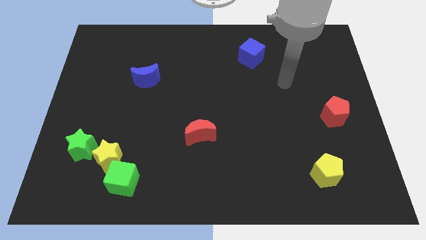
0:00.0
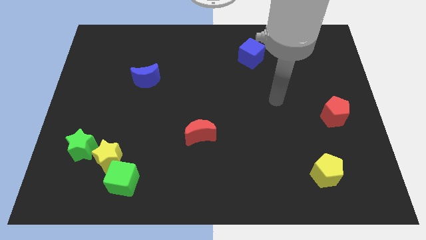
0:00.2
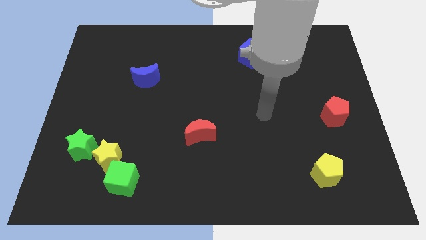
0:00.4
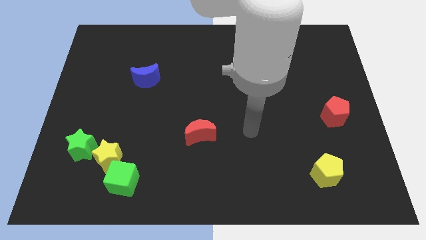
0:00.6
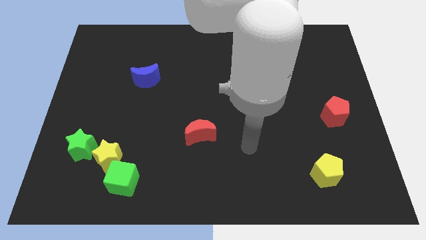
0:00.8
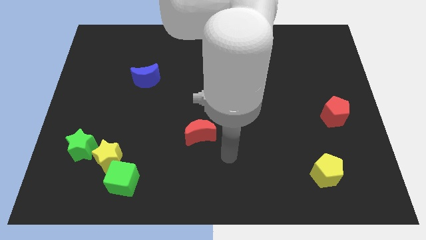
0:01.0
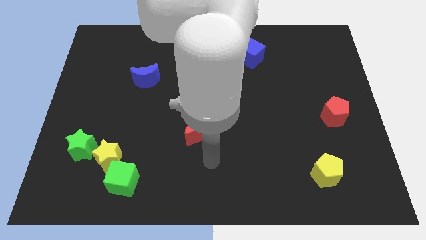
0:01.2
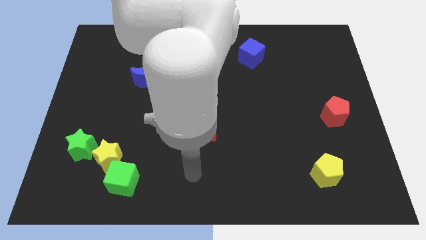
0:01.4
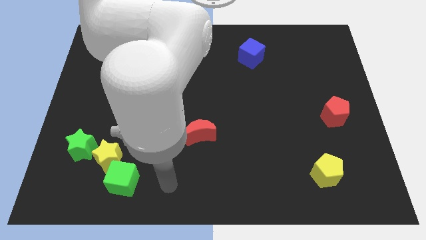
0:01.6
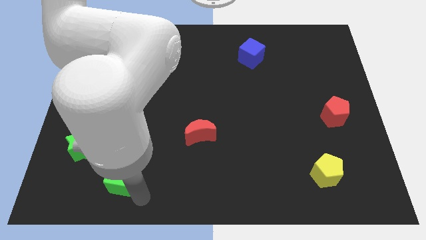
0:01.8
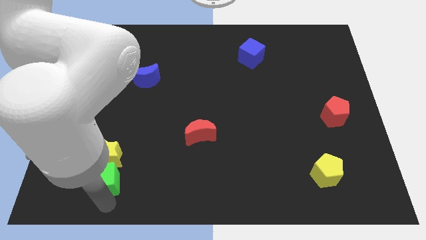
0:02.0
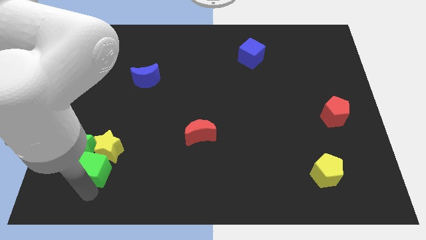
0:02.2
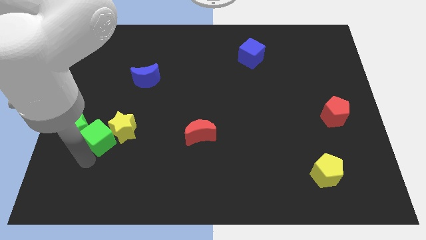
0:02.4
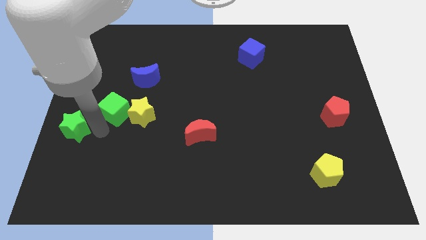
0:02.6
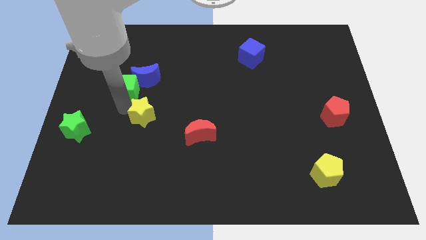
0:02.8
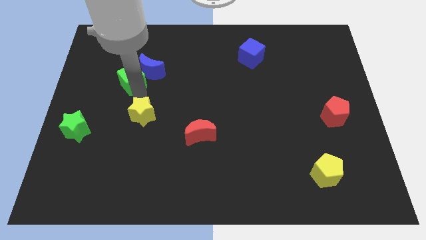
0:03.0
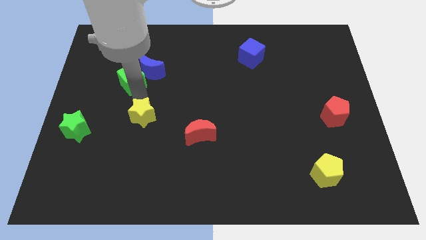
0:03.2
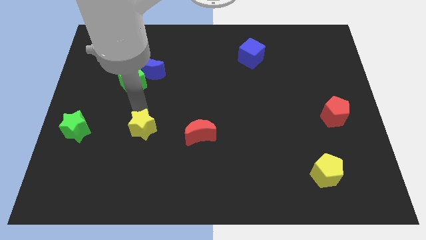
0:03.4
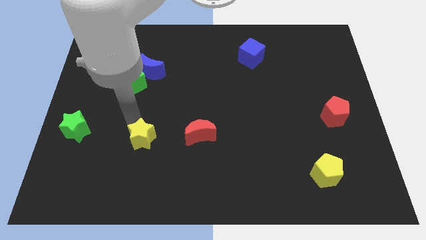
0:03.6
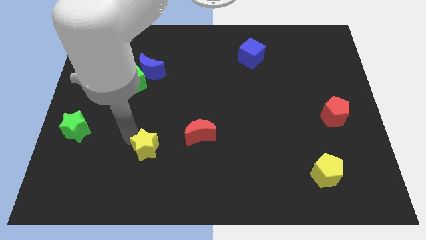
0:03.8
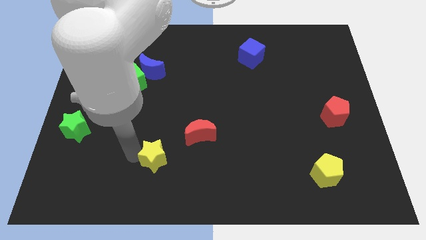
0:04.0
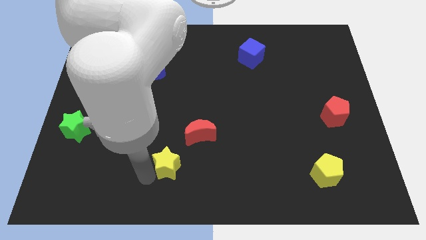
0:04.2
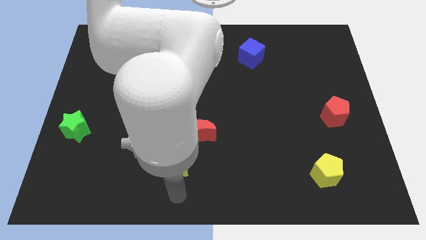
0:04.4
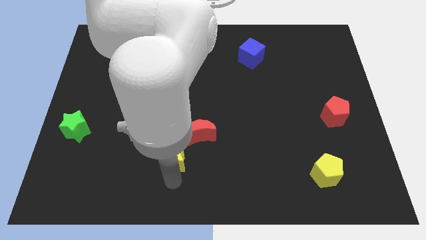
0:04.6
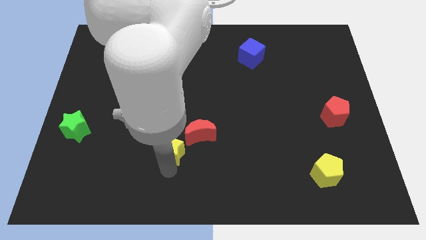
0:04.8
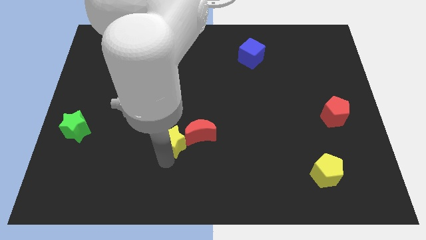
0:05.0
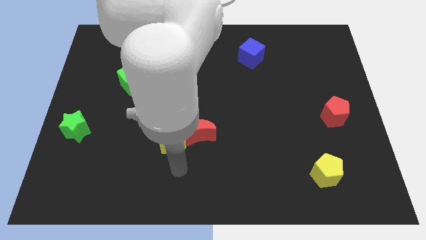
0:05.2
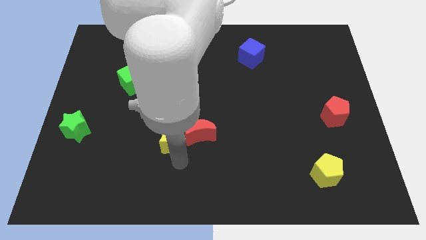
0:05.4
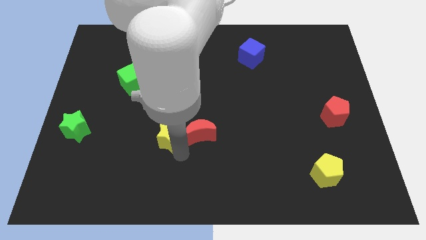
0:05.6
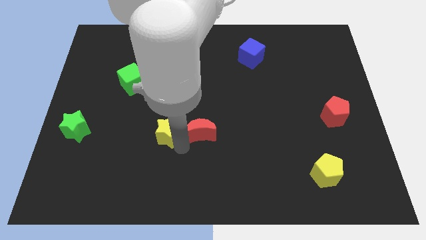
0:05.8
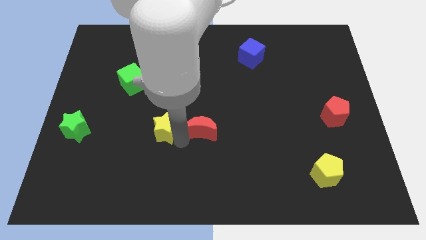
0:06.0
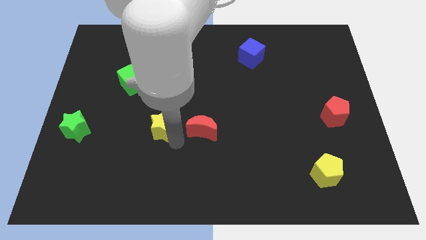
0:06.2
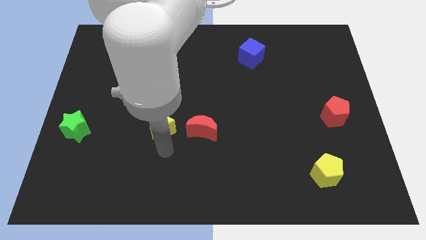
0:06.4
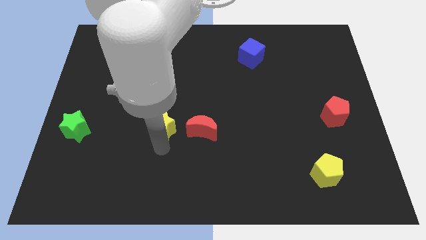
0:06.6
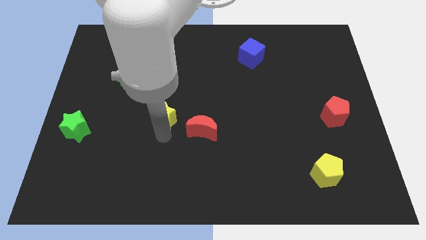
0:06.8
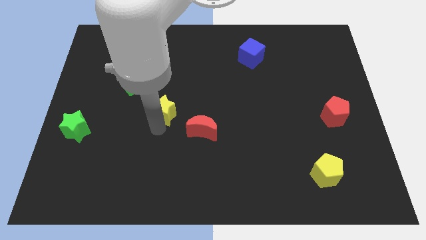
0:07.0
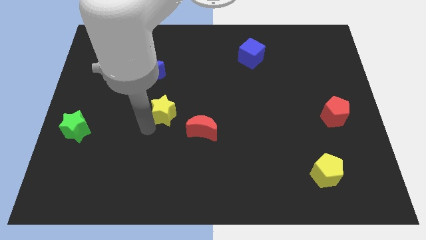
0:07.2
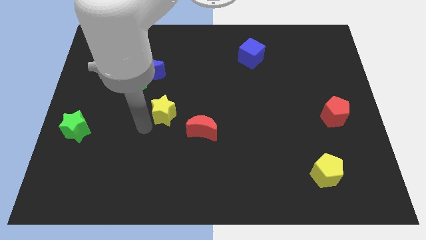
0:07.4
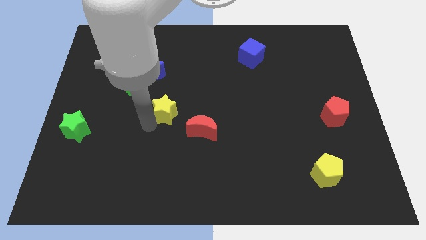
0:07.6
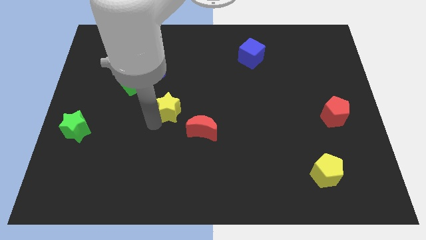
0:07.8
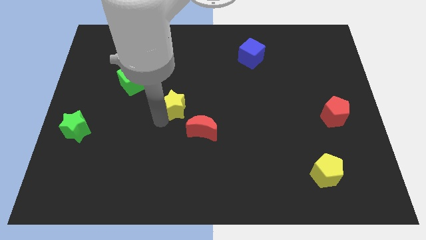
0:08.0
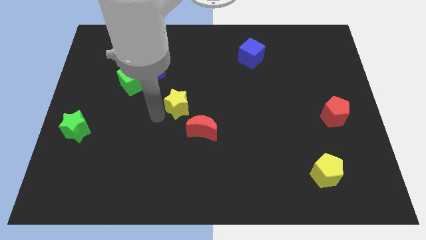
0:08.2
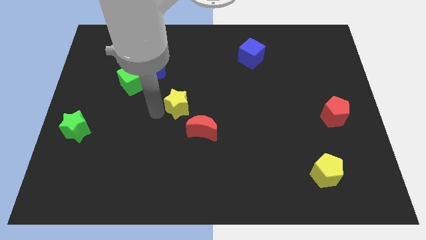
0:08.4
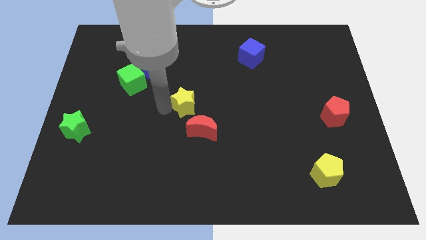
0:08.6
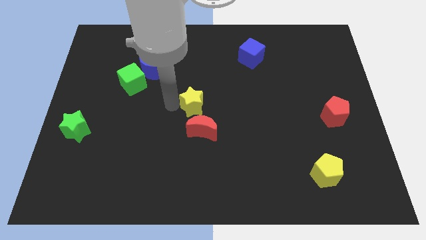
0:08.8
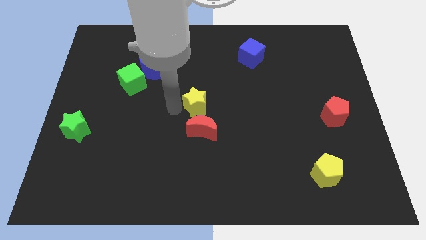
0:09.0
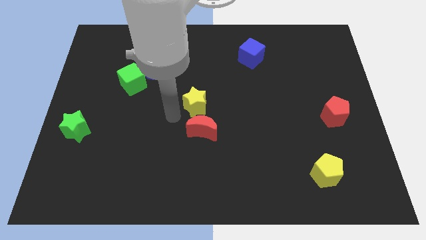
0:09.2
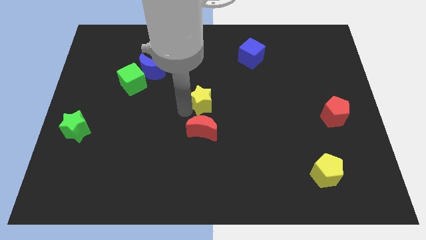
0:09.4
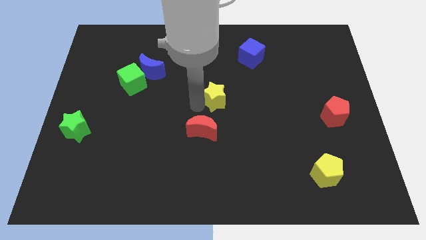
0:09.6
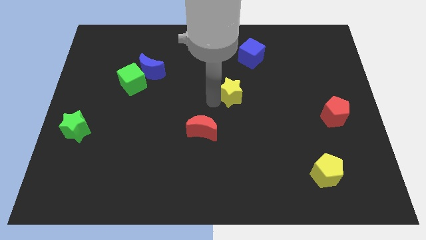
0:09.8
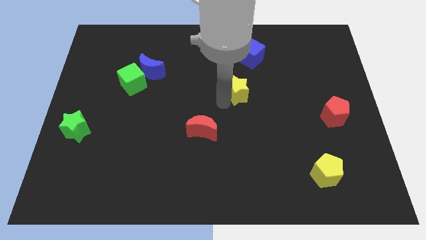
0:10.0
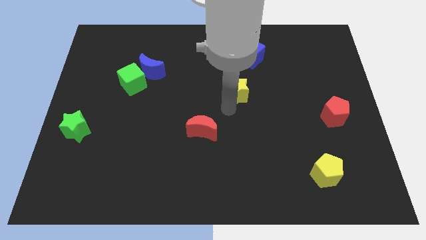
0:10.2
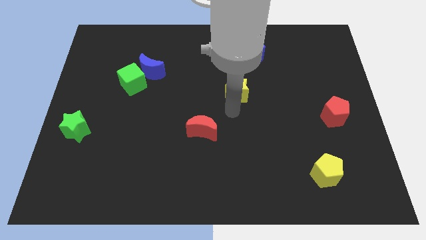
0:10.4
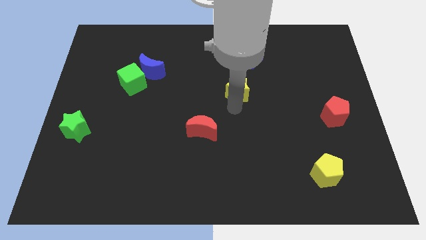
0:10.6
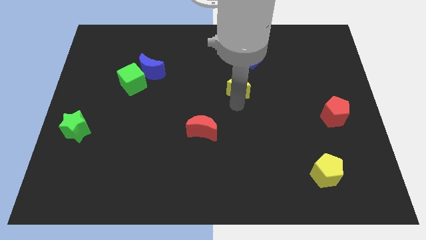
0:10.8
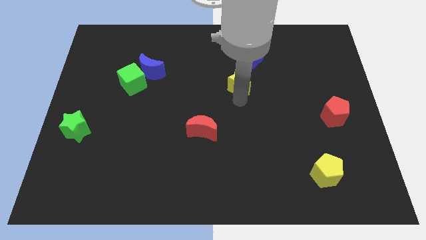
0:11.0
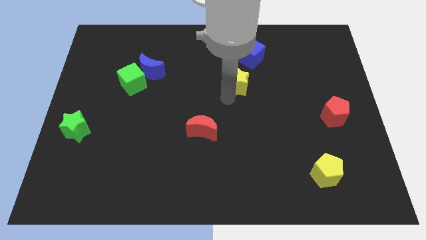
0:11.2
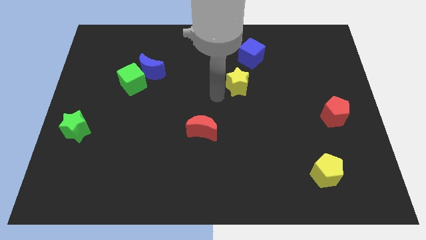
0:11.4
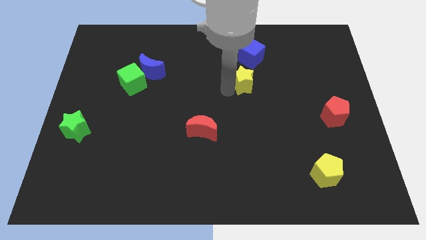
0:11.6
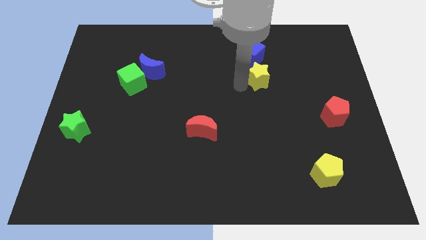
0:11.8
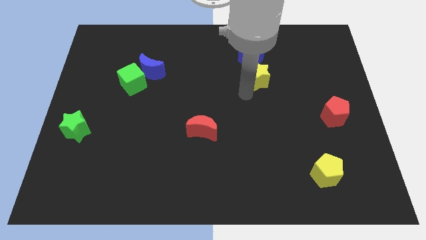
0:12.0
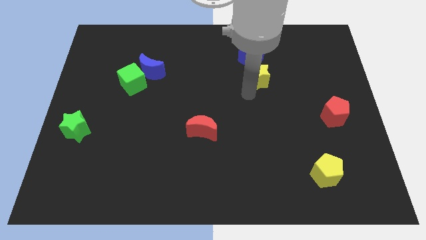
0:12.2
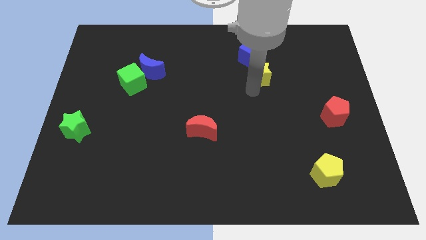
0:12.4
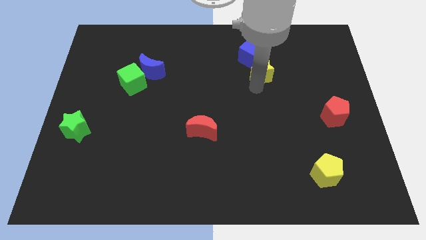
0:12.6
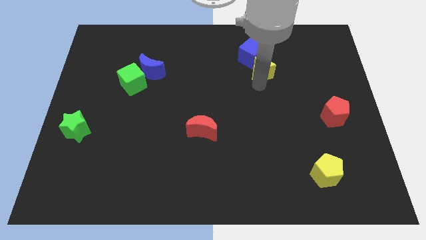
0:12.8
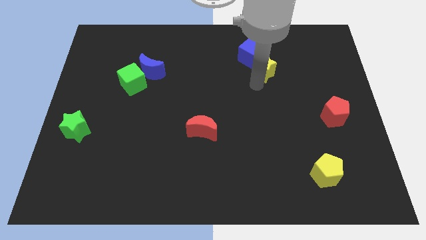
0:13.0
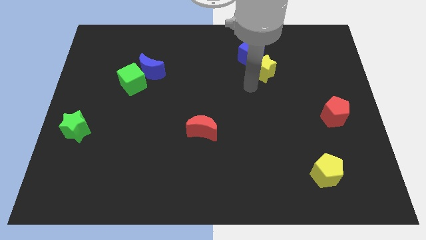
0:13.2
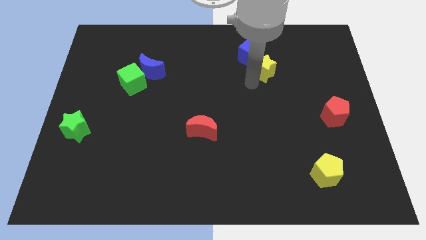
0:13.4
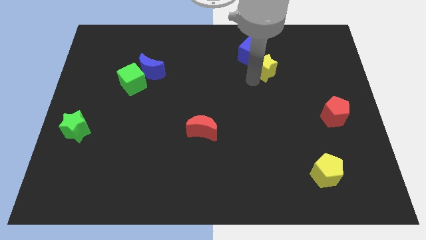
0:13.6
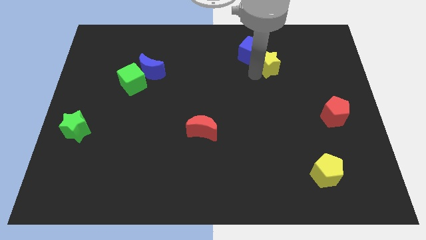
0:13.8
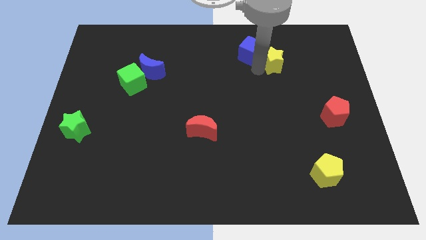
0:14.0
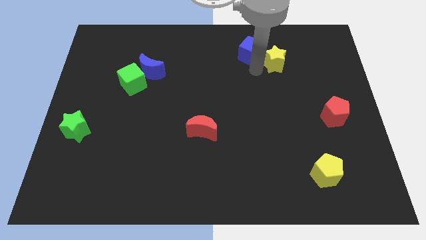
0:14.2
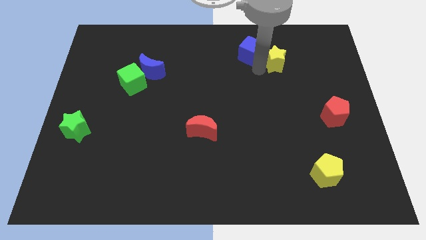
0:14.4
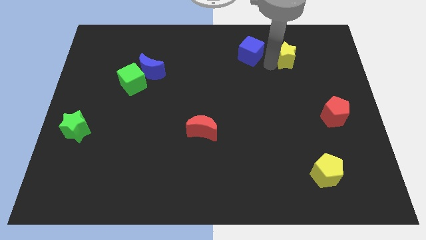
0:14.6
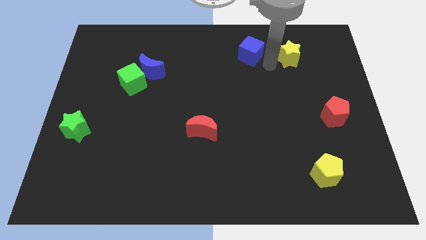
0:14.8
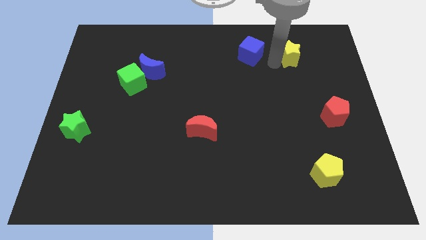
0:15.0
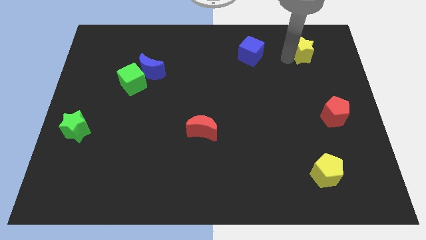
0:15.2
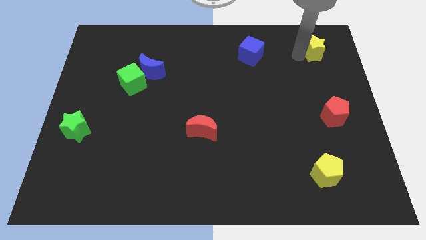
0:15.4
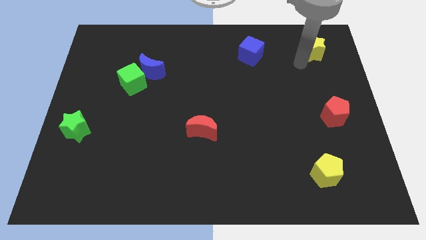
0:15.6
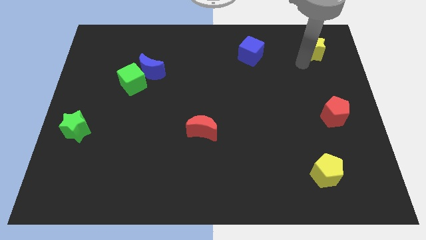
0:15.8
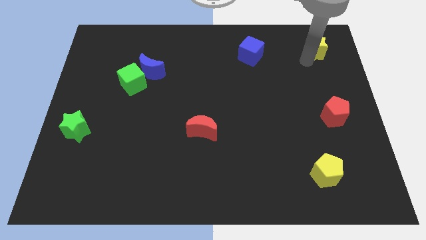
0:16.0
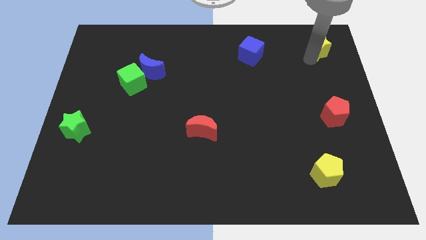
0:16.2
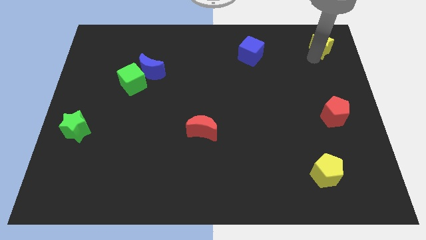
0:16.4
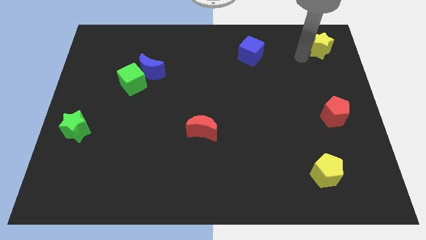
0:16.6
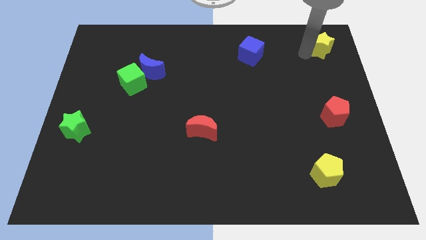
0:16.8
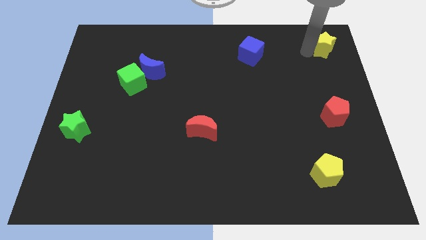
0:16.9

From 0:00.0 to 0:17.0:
slide the yellow star to the upper right corner
